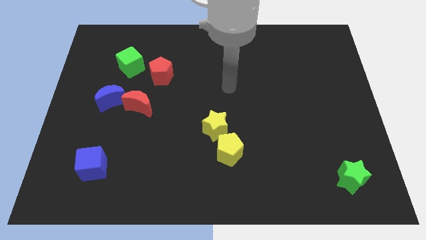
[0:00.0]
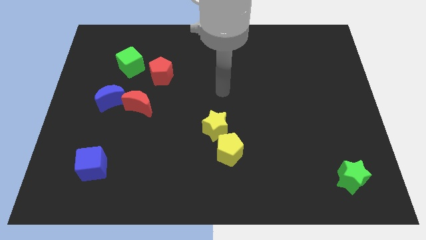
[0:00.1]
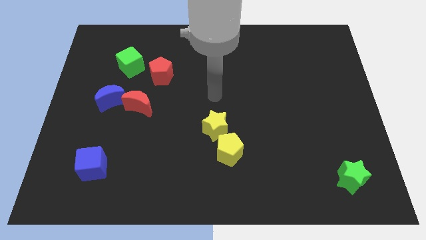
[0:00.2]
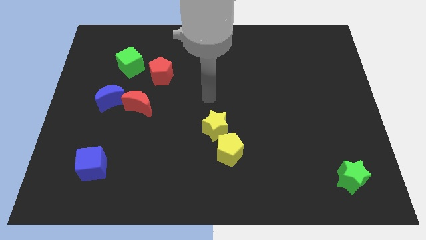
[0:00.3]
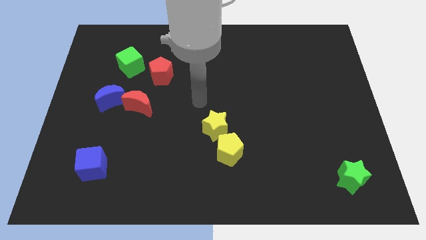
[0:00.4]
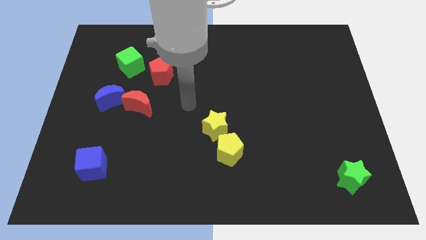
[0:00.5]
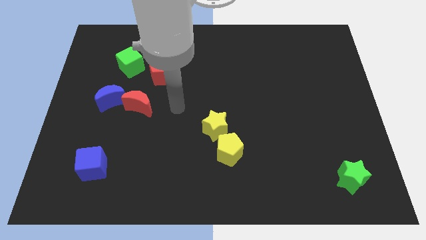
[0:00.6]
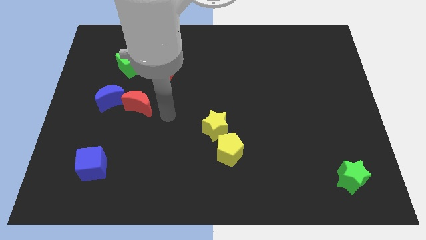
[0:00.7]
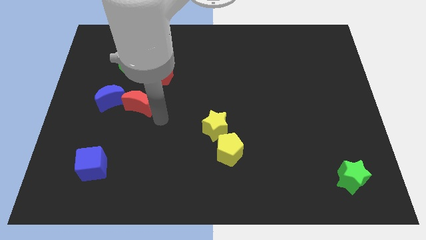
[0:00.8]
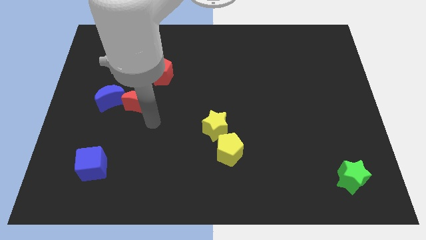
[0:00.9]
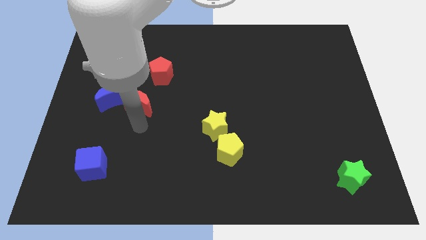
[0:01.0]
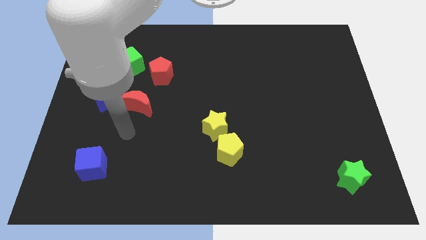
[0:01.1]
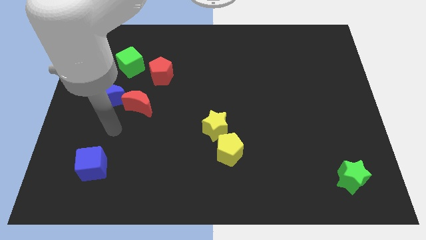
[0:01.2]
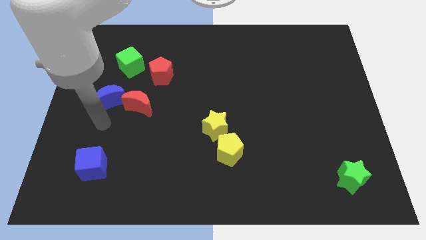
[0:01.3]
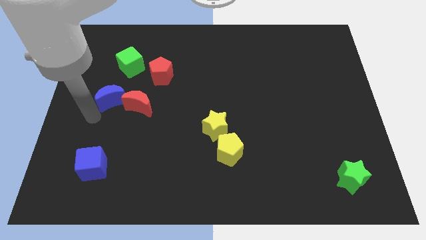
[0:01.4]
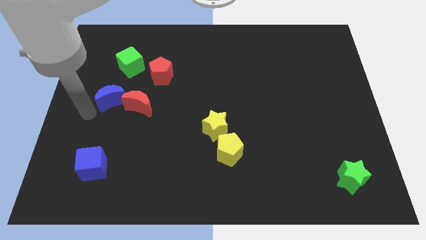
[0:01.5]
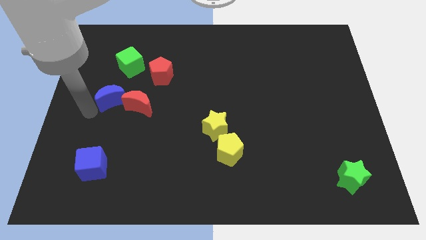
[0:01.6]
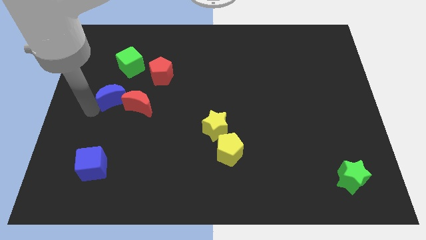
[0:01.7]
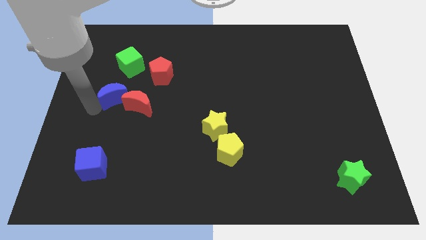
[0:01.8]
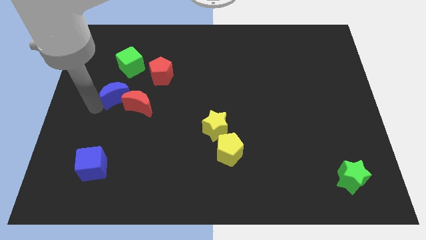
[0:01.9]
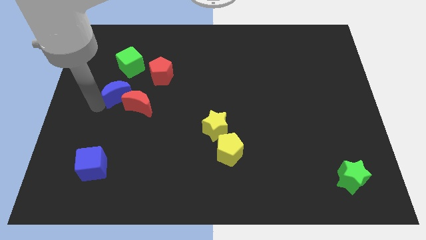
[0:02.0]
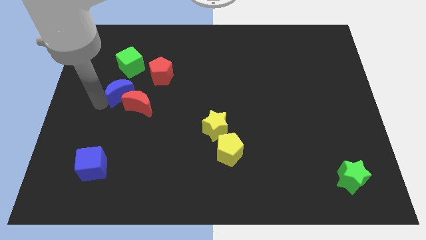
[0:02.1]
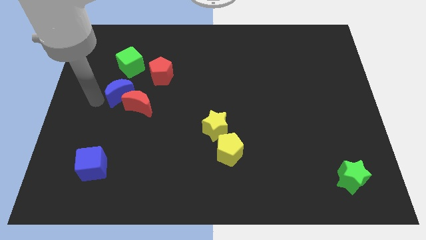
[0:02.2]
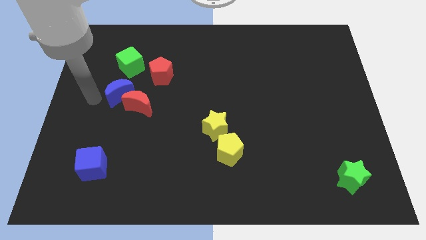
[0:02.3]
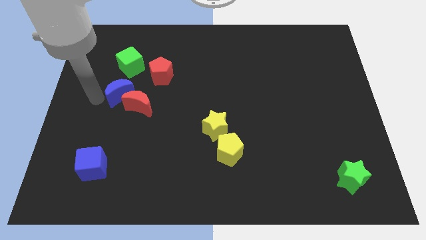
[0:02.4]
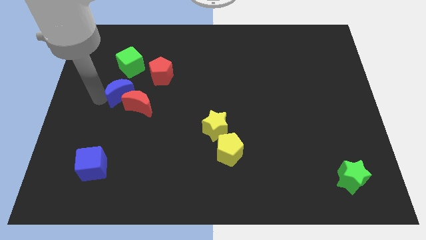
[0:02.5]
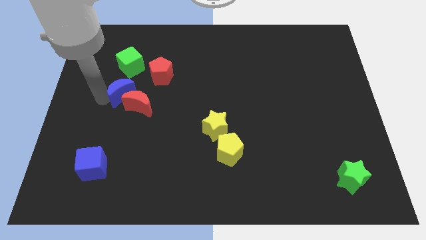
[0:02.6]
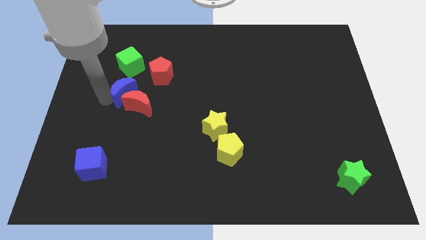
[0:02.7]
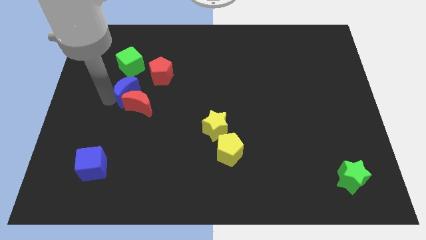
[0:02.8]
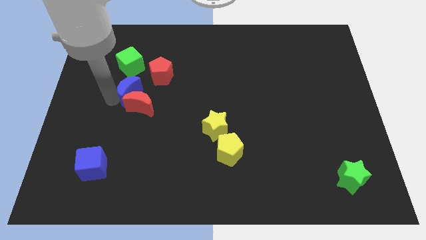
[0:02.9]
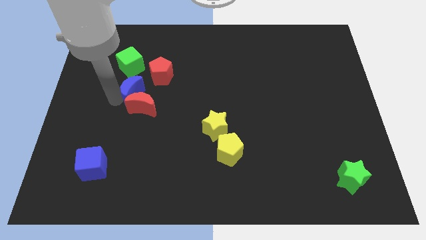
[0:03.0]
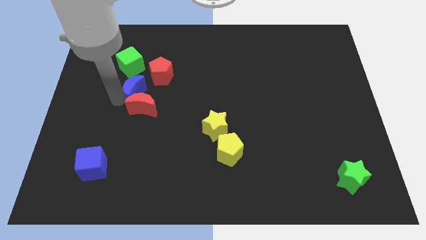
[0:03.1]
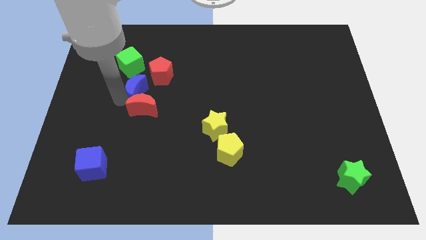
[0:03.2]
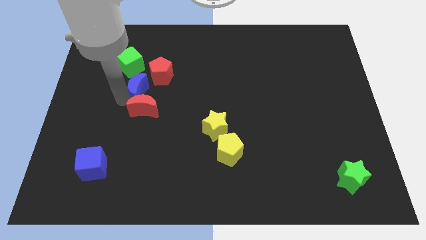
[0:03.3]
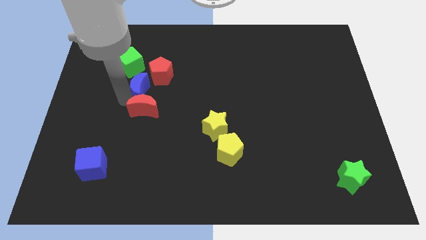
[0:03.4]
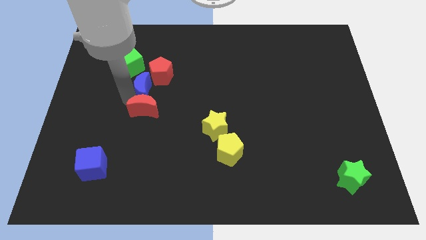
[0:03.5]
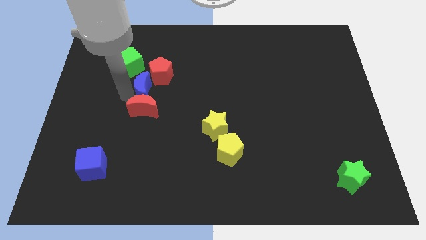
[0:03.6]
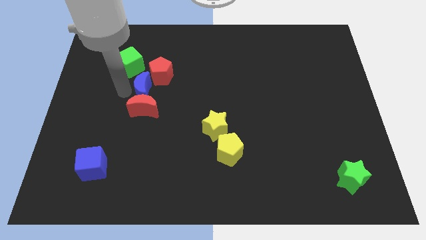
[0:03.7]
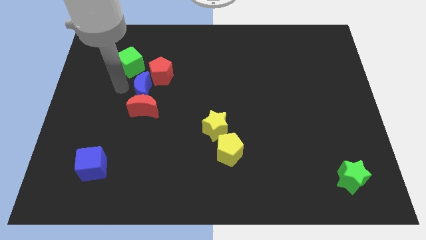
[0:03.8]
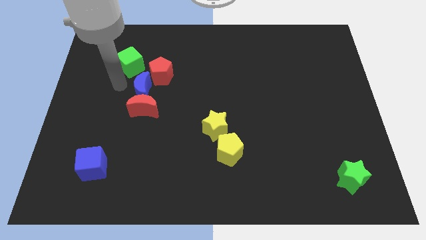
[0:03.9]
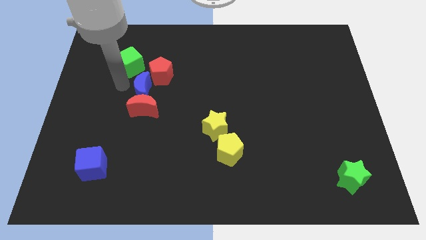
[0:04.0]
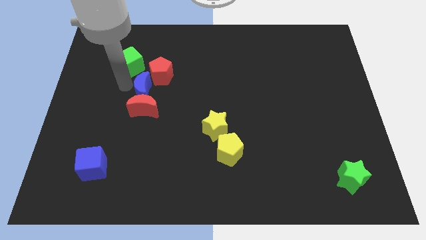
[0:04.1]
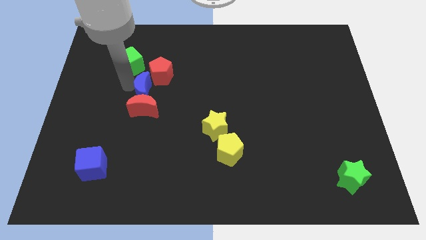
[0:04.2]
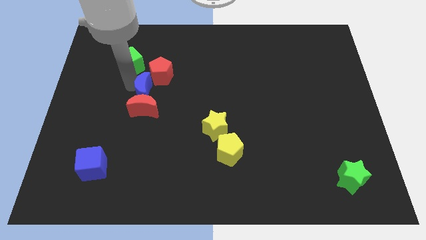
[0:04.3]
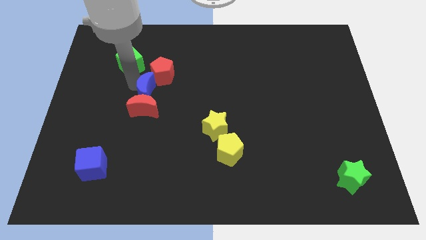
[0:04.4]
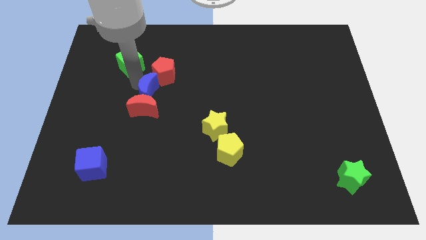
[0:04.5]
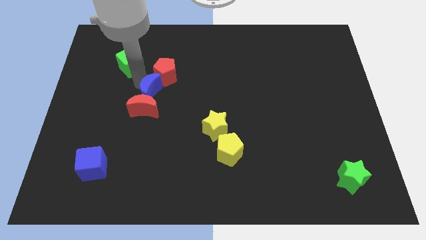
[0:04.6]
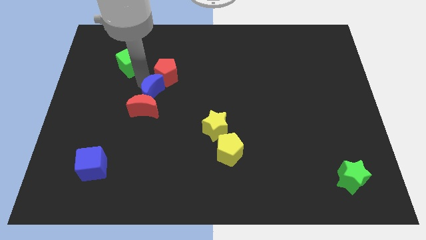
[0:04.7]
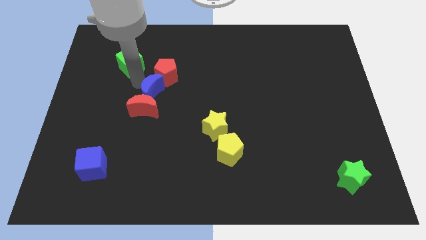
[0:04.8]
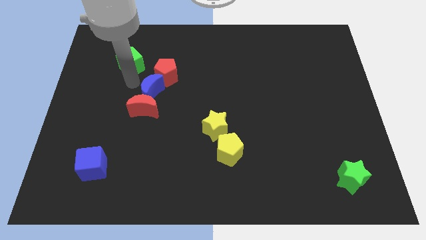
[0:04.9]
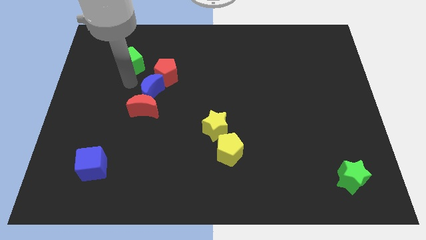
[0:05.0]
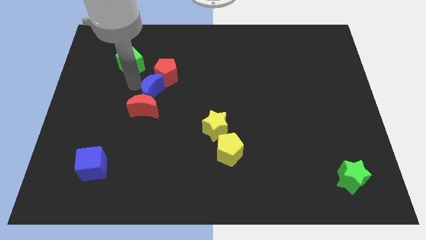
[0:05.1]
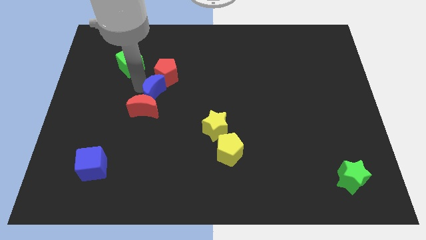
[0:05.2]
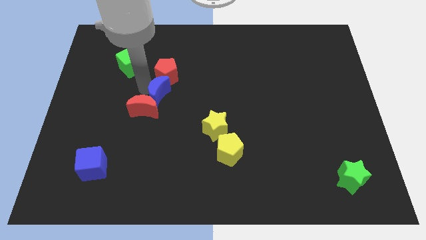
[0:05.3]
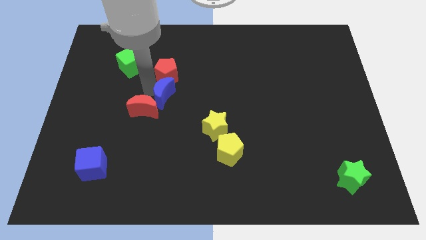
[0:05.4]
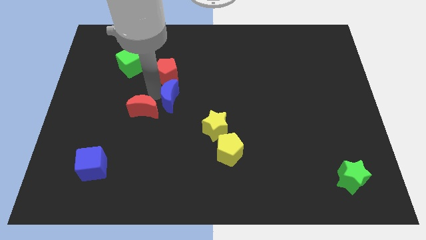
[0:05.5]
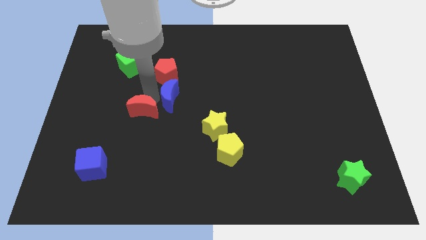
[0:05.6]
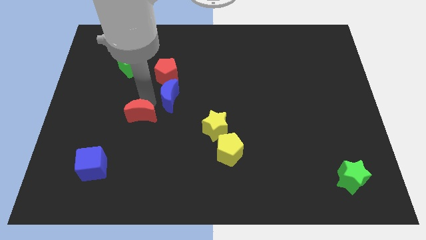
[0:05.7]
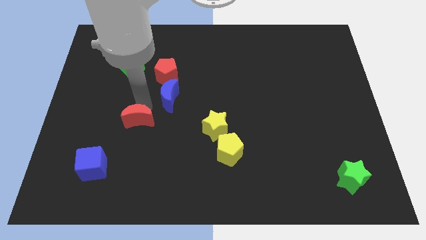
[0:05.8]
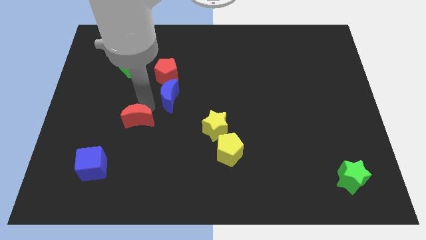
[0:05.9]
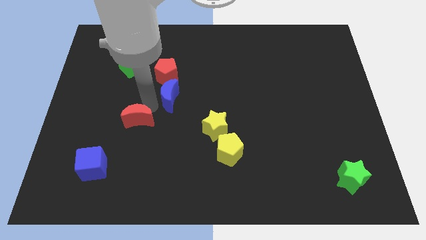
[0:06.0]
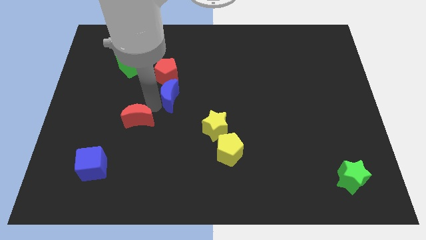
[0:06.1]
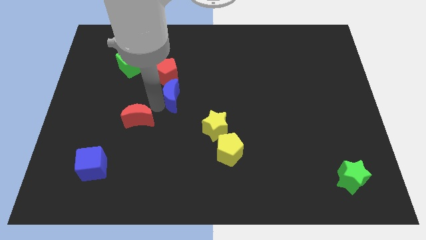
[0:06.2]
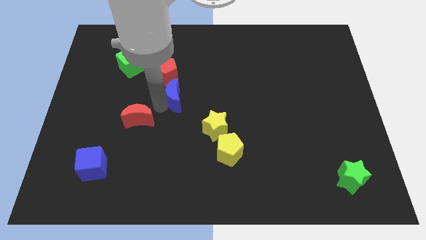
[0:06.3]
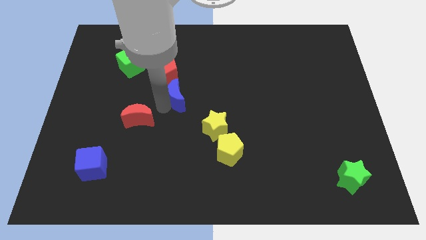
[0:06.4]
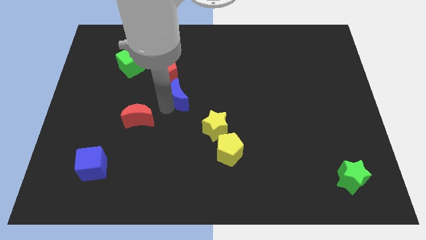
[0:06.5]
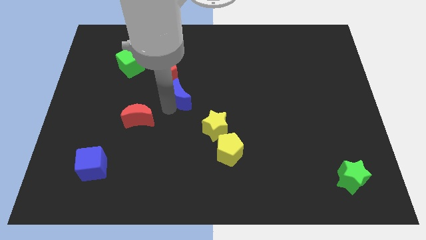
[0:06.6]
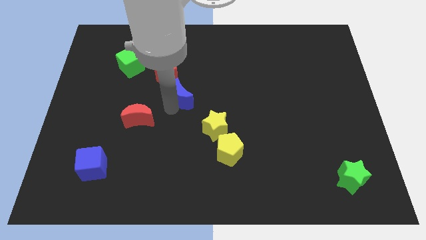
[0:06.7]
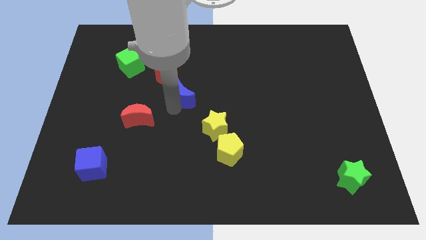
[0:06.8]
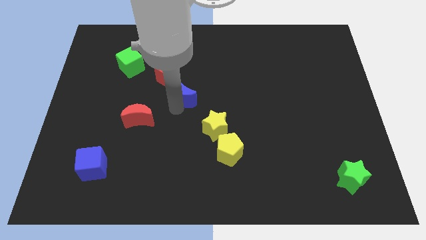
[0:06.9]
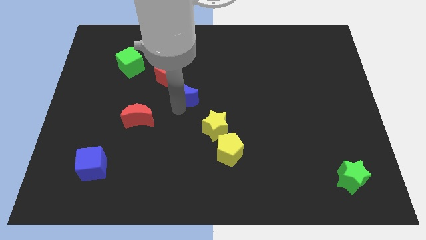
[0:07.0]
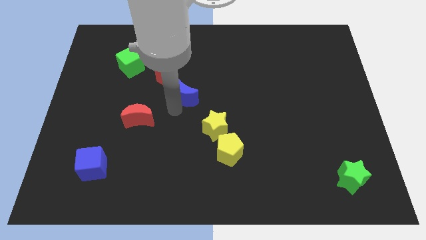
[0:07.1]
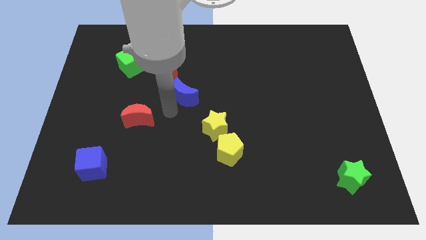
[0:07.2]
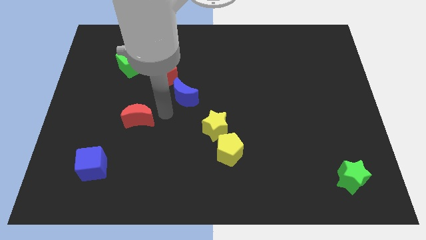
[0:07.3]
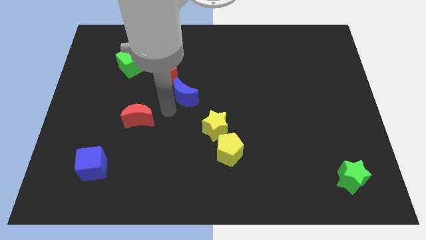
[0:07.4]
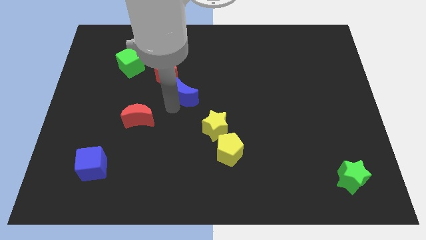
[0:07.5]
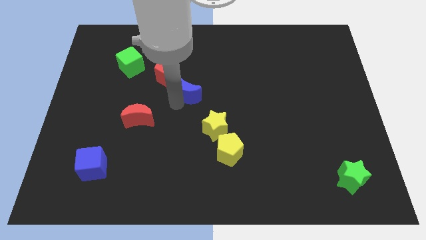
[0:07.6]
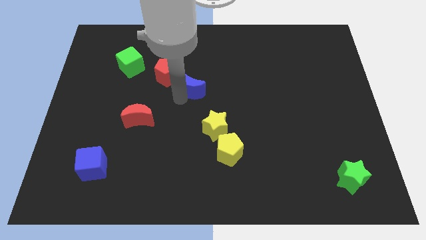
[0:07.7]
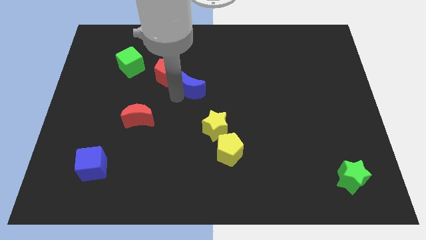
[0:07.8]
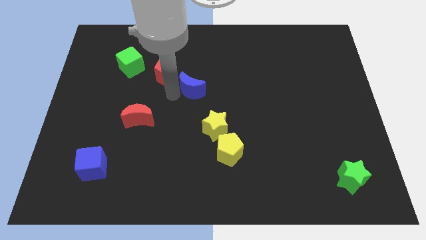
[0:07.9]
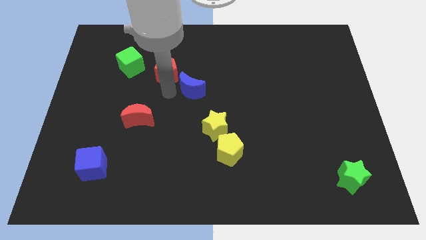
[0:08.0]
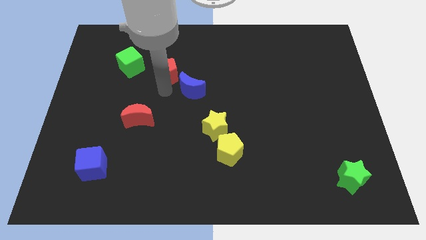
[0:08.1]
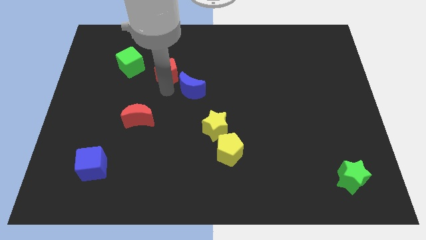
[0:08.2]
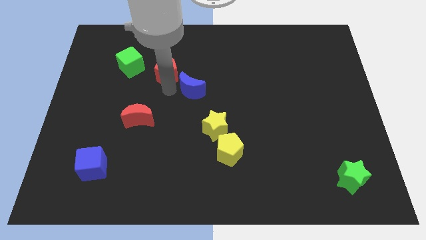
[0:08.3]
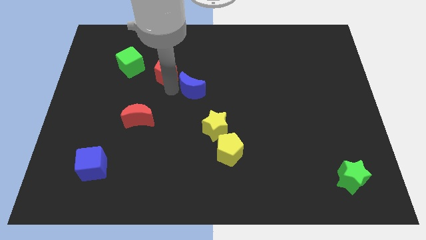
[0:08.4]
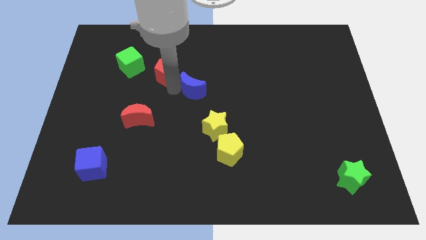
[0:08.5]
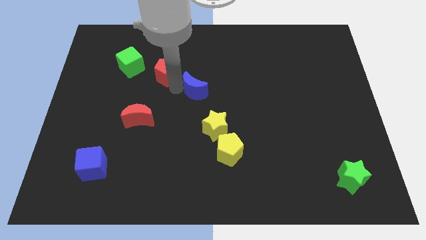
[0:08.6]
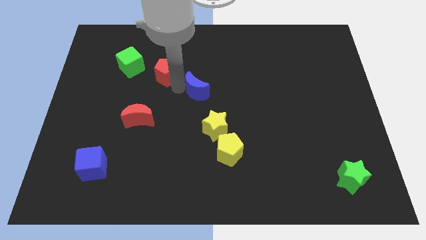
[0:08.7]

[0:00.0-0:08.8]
push the blue moon to the right
